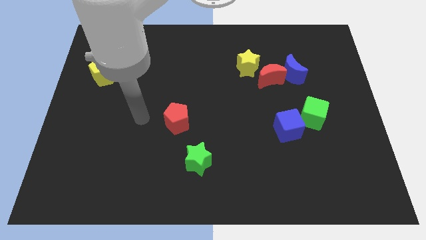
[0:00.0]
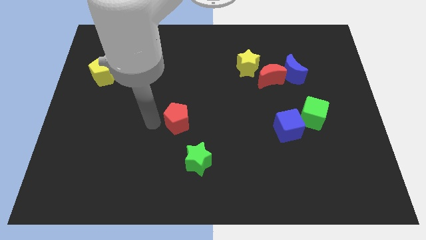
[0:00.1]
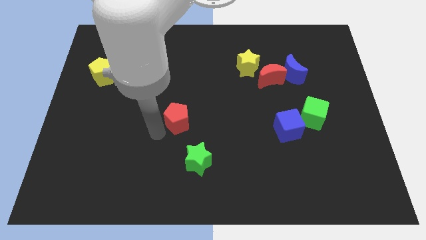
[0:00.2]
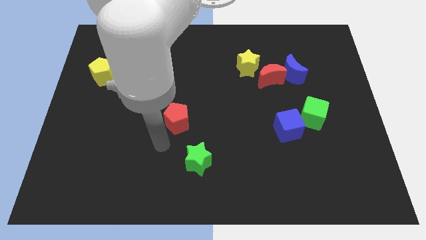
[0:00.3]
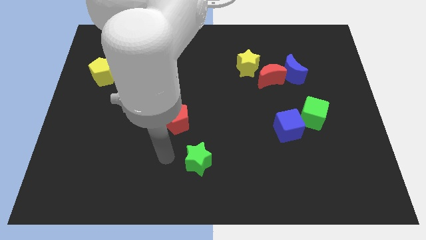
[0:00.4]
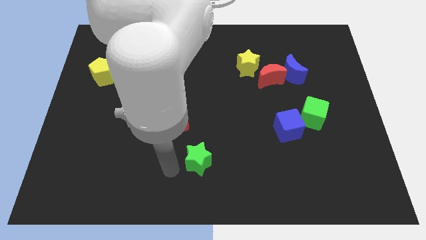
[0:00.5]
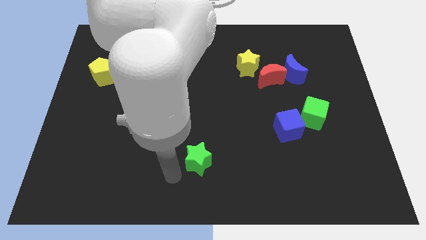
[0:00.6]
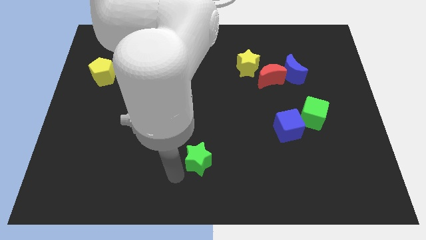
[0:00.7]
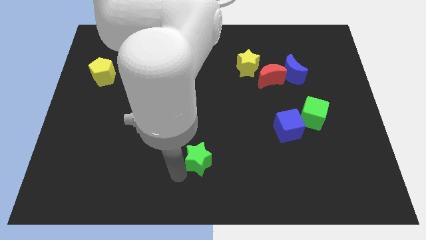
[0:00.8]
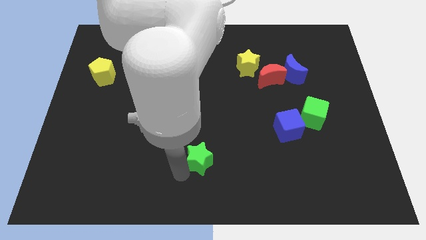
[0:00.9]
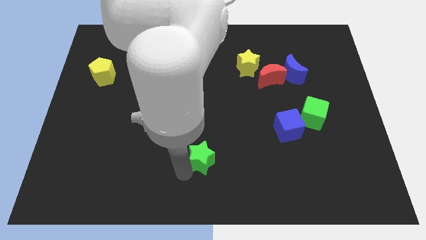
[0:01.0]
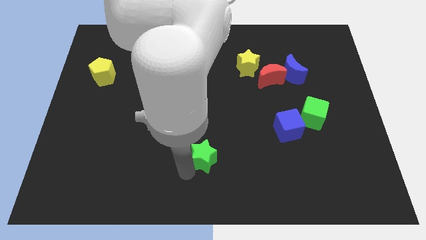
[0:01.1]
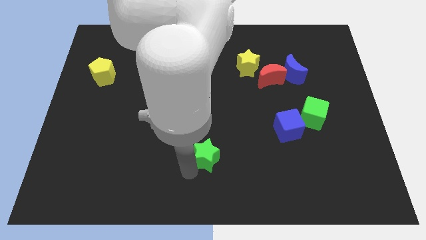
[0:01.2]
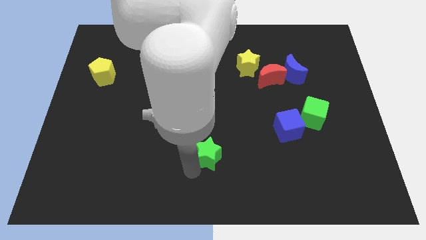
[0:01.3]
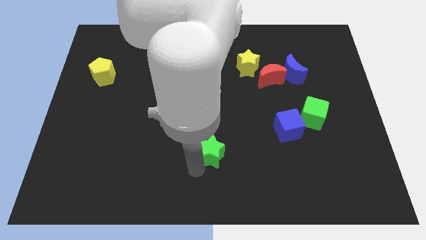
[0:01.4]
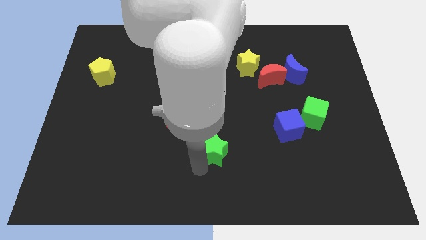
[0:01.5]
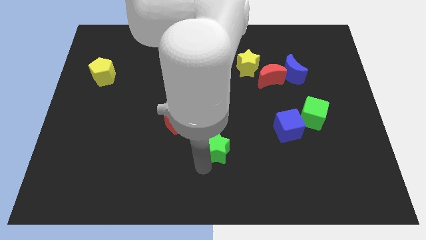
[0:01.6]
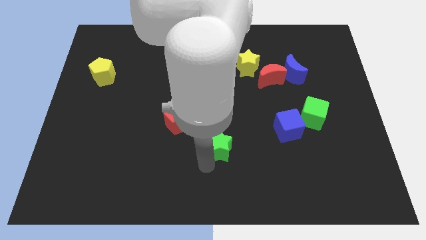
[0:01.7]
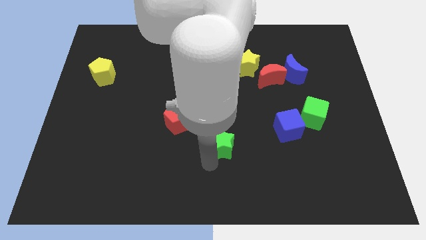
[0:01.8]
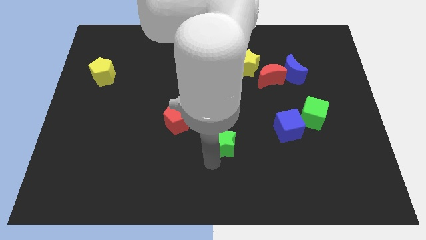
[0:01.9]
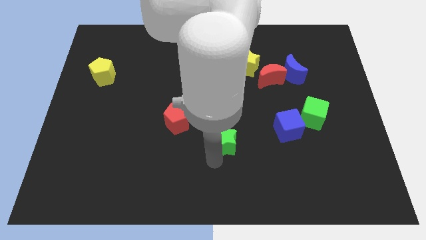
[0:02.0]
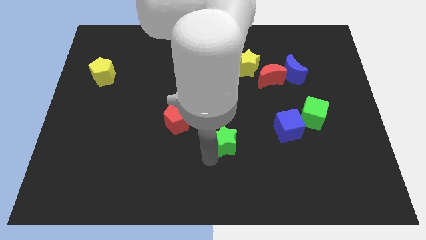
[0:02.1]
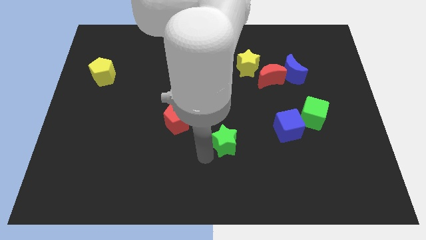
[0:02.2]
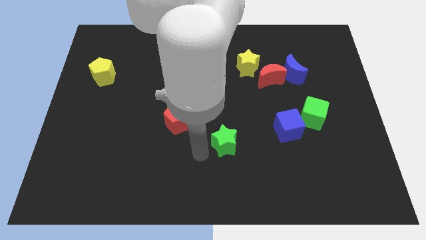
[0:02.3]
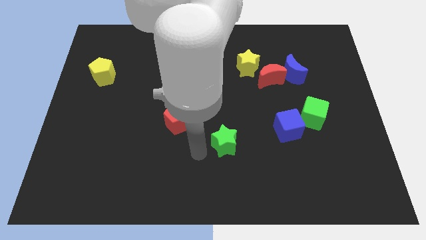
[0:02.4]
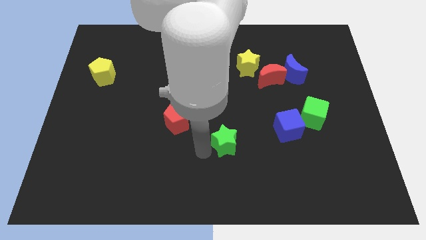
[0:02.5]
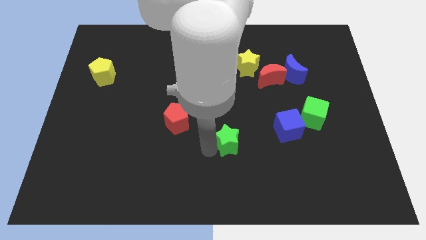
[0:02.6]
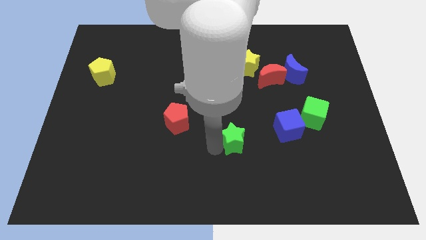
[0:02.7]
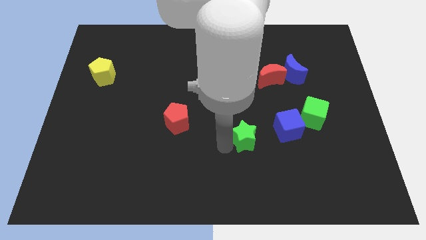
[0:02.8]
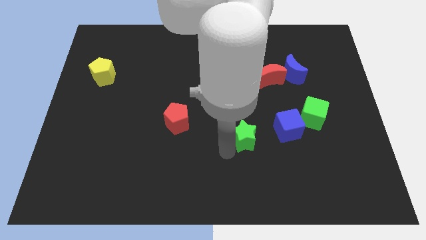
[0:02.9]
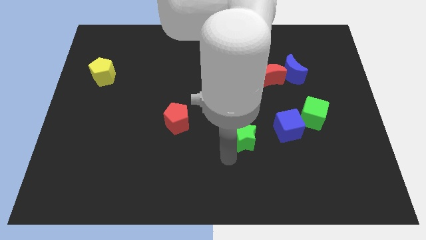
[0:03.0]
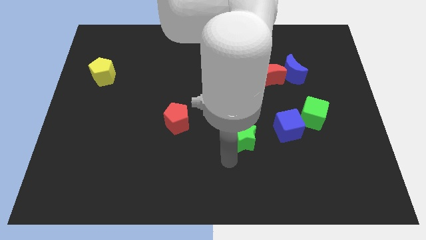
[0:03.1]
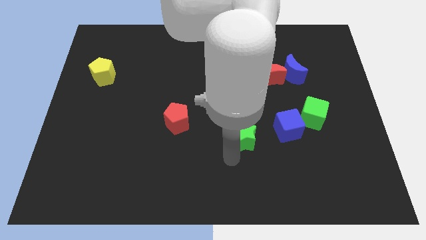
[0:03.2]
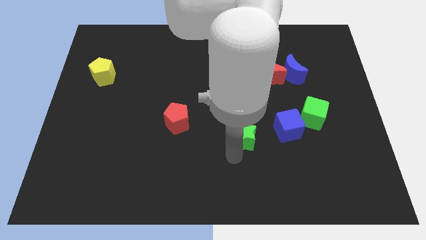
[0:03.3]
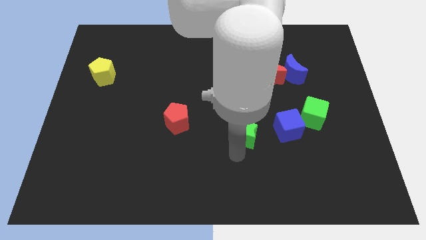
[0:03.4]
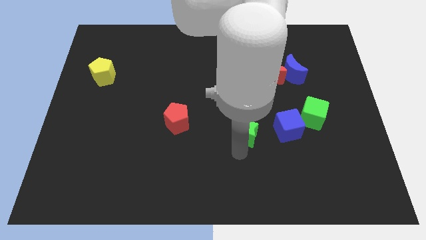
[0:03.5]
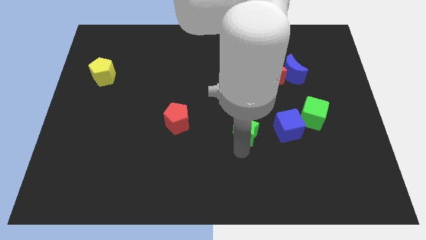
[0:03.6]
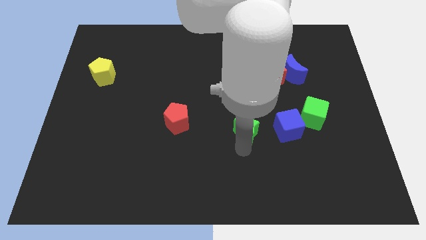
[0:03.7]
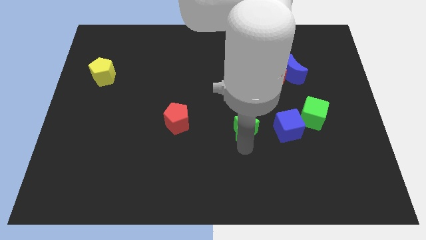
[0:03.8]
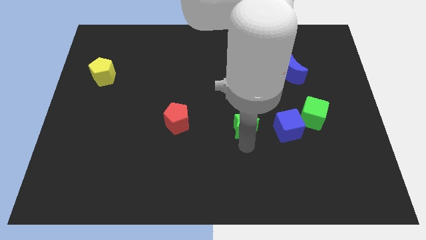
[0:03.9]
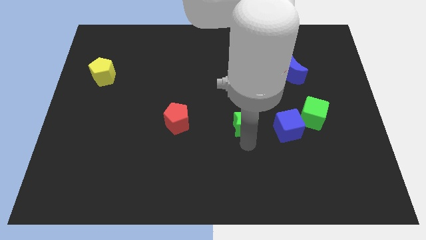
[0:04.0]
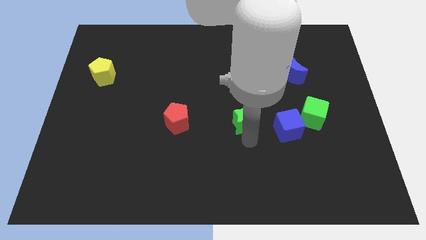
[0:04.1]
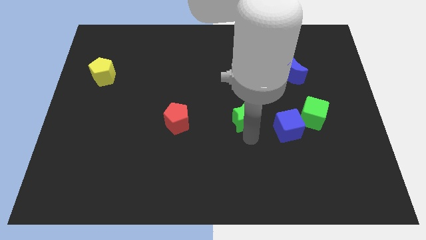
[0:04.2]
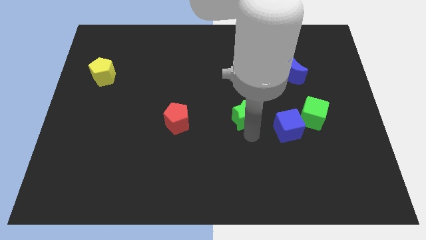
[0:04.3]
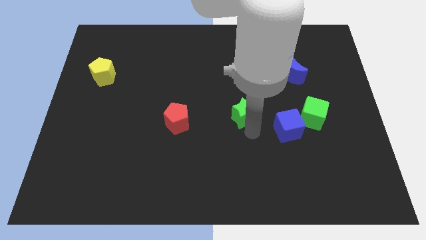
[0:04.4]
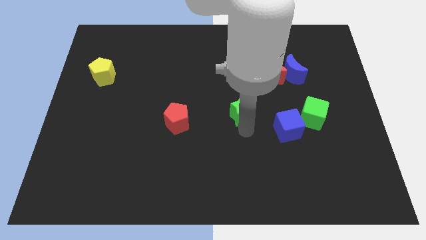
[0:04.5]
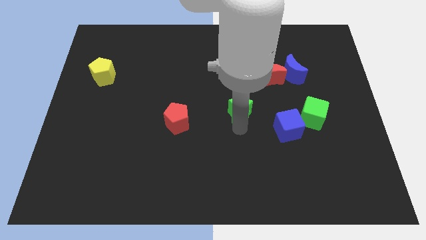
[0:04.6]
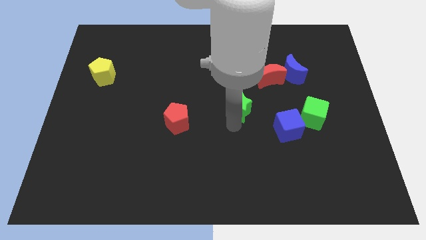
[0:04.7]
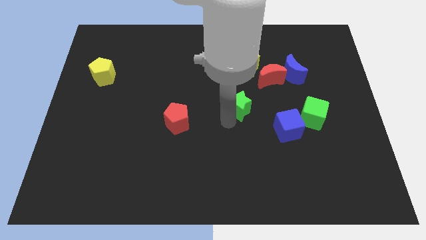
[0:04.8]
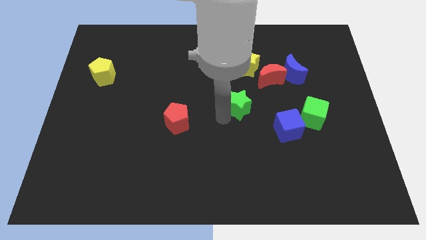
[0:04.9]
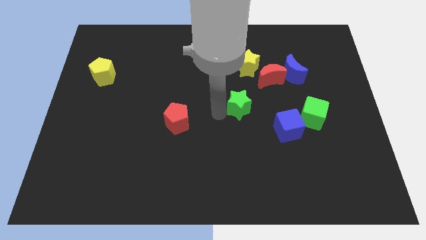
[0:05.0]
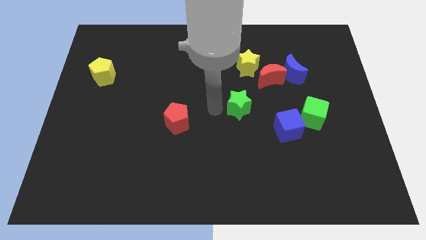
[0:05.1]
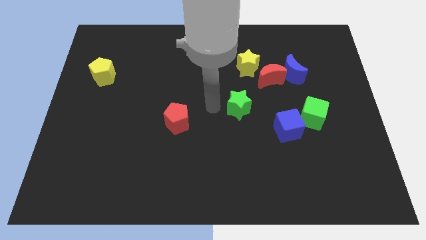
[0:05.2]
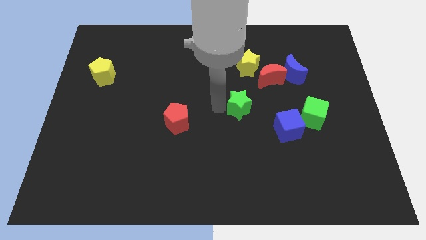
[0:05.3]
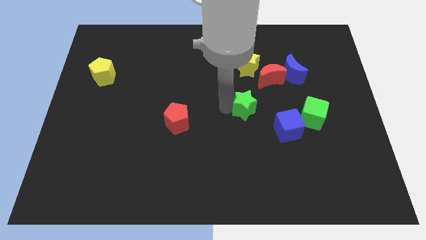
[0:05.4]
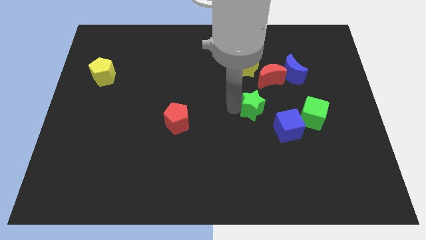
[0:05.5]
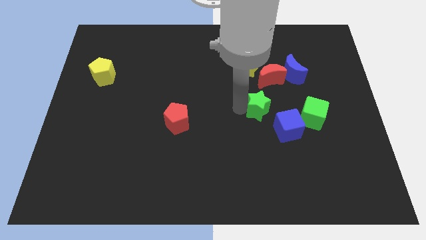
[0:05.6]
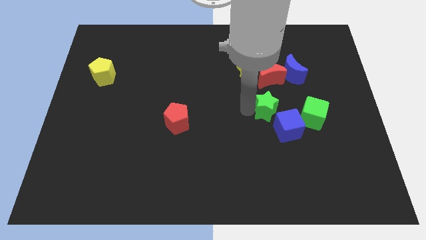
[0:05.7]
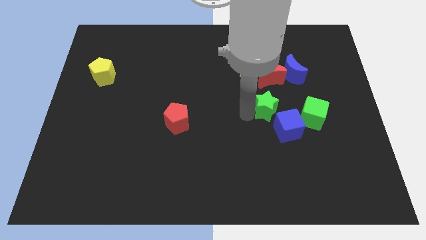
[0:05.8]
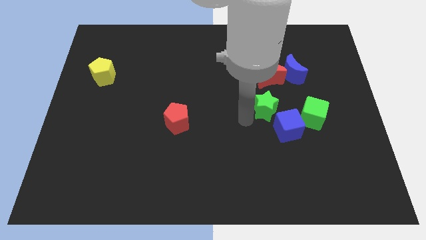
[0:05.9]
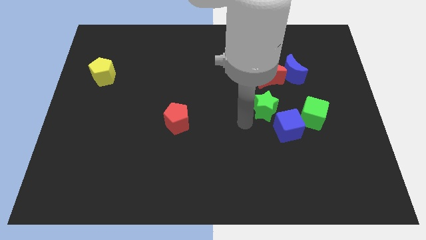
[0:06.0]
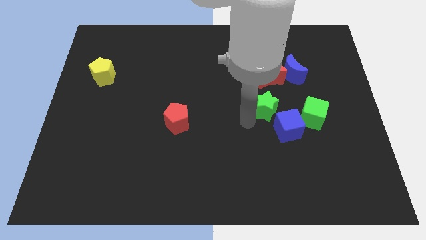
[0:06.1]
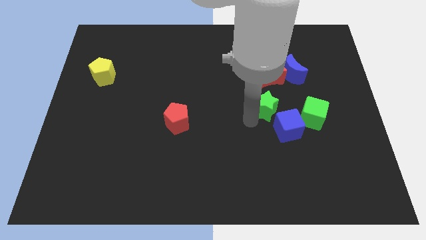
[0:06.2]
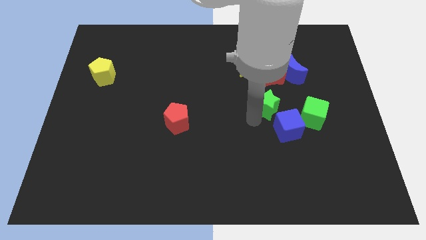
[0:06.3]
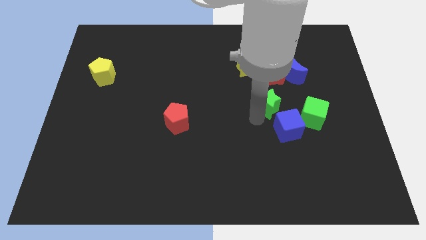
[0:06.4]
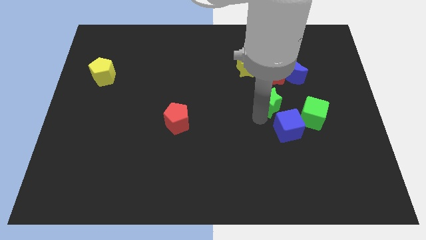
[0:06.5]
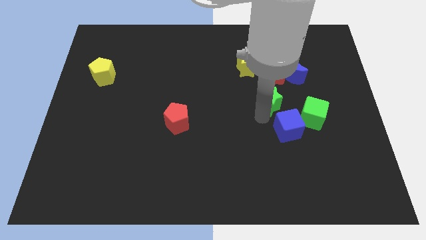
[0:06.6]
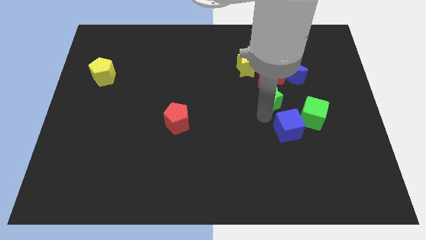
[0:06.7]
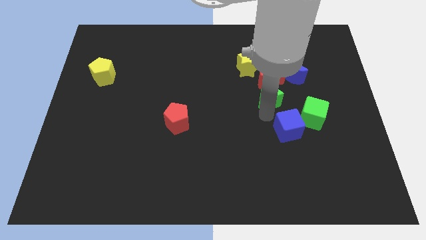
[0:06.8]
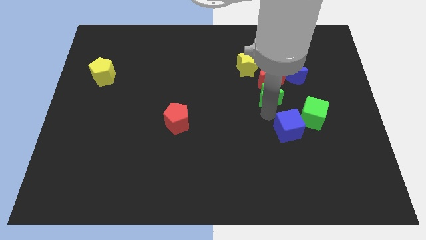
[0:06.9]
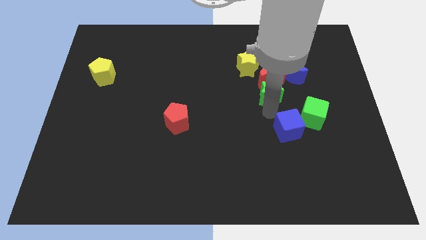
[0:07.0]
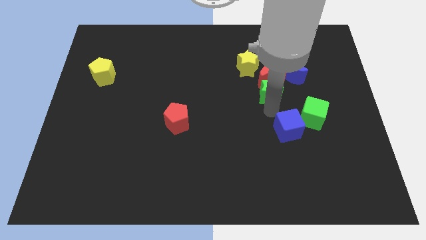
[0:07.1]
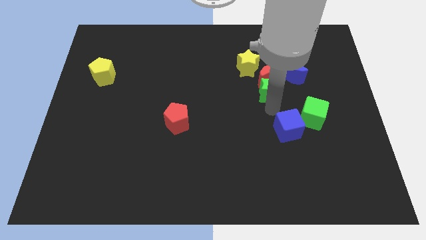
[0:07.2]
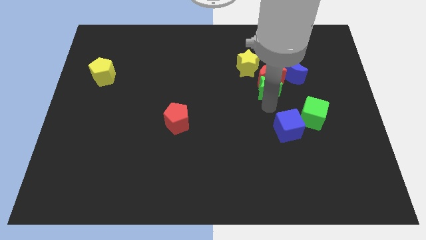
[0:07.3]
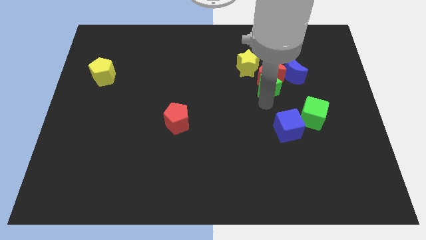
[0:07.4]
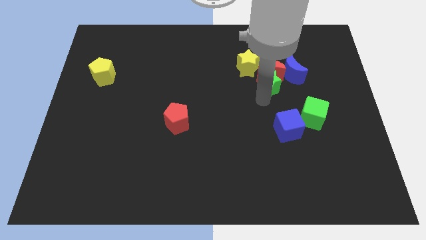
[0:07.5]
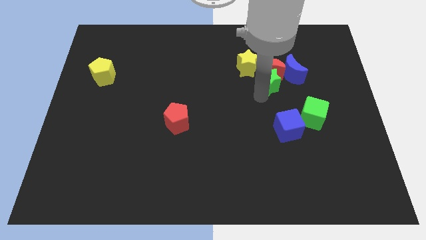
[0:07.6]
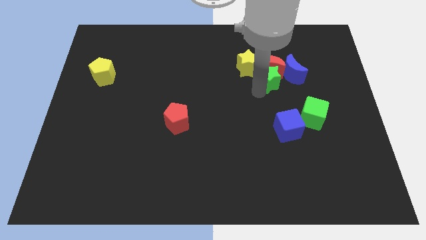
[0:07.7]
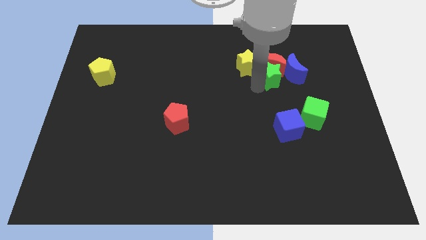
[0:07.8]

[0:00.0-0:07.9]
move the green star to the blue moon

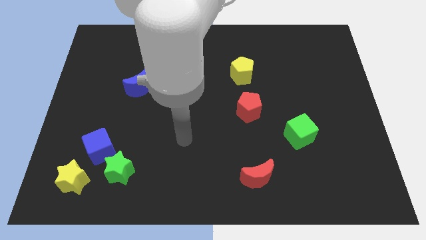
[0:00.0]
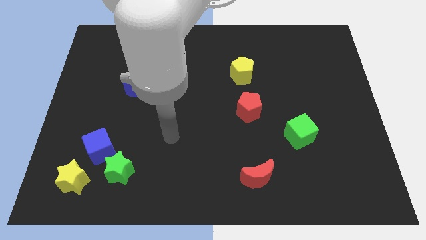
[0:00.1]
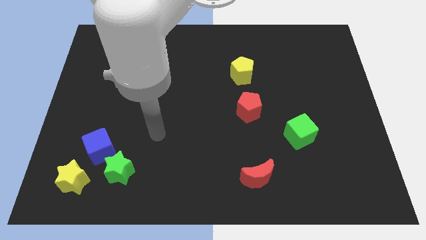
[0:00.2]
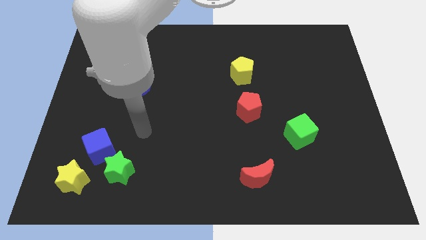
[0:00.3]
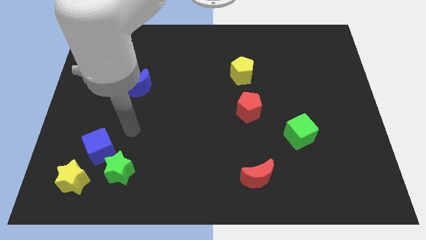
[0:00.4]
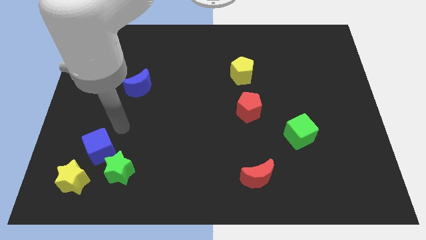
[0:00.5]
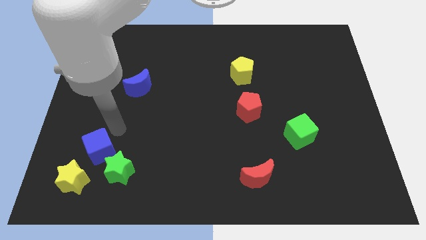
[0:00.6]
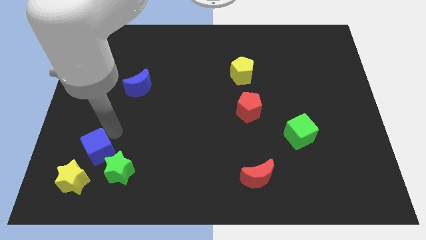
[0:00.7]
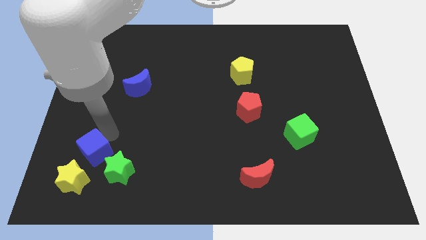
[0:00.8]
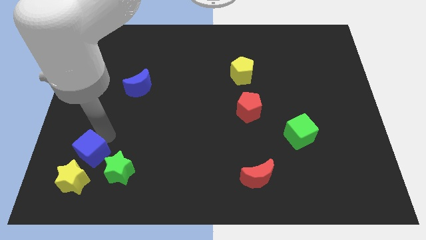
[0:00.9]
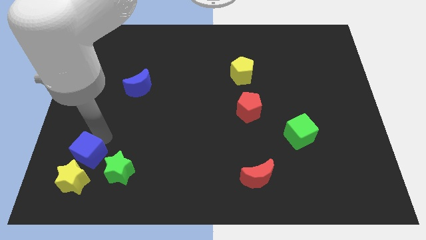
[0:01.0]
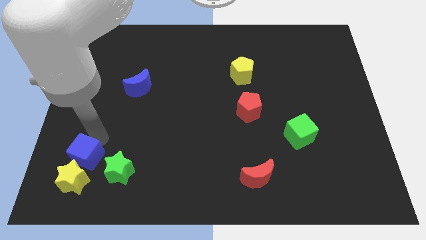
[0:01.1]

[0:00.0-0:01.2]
slide the blue cube next to the yellow star
